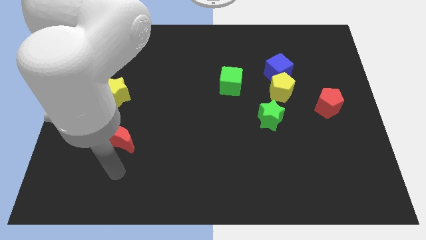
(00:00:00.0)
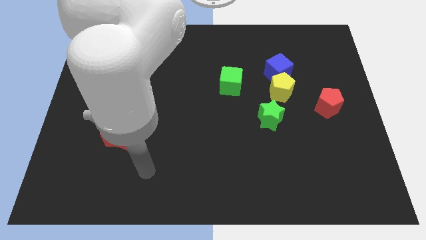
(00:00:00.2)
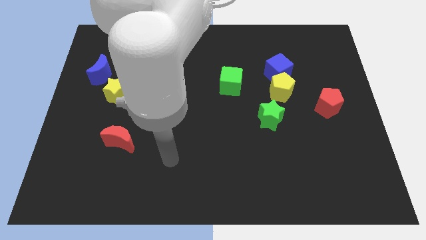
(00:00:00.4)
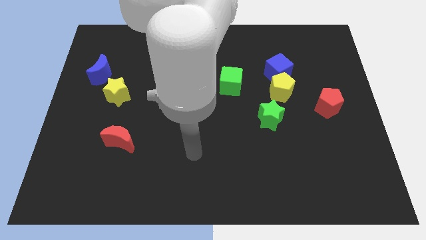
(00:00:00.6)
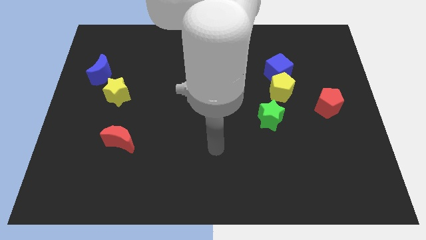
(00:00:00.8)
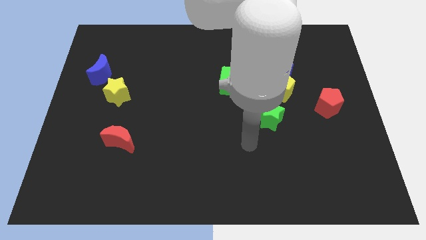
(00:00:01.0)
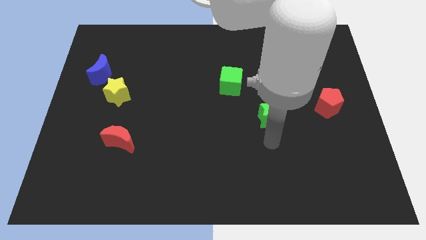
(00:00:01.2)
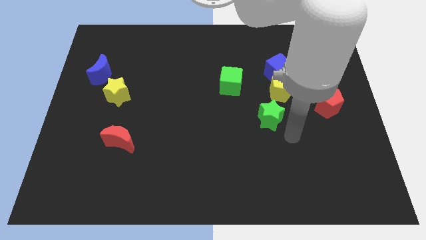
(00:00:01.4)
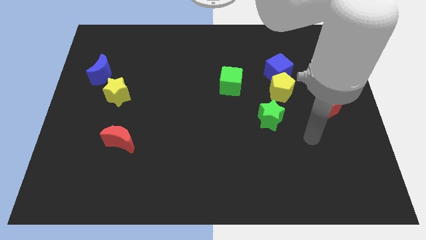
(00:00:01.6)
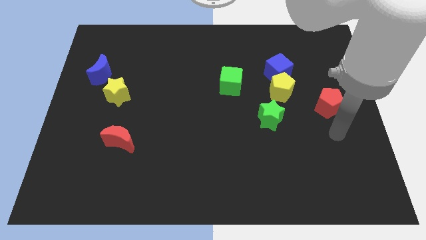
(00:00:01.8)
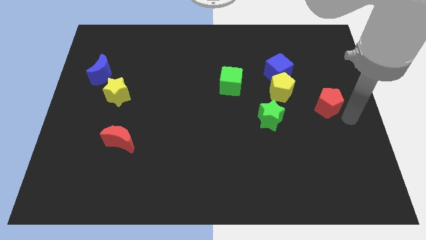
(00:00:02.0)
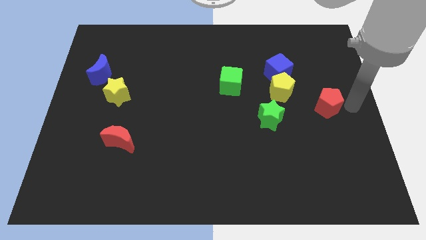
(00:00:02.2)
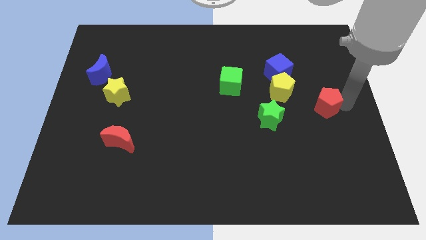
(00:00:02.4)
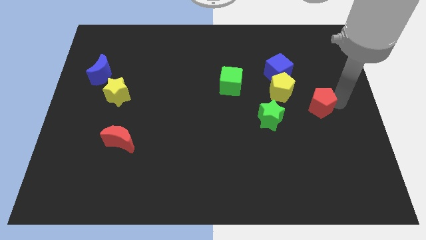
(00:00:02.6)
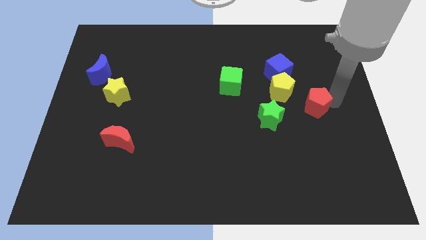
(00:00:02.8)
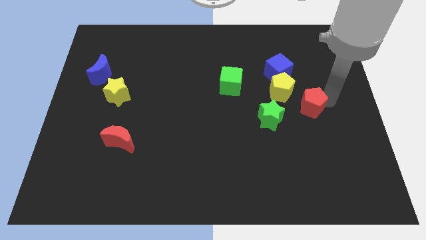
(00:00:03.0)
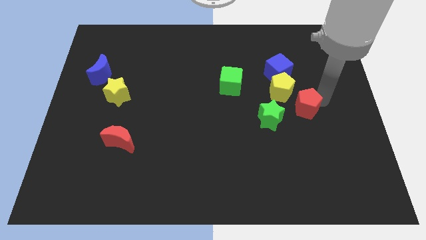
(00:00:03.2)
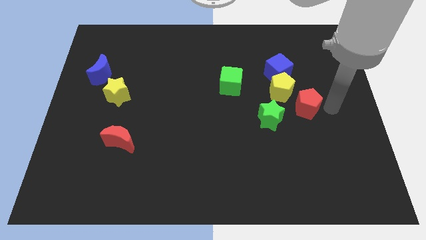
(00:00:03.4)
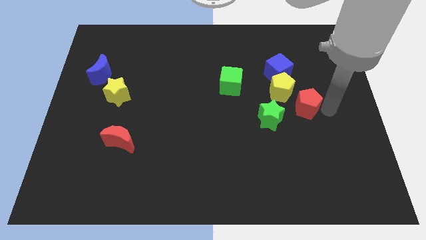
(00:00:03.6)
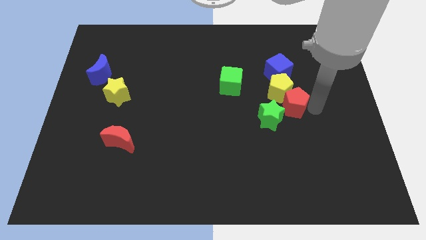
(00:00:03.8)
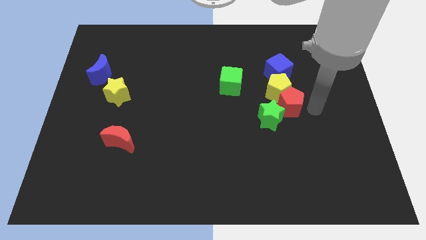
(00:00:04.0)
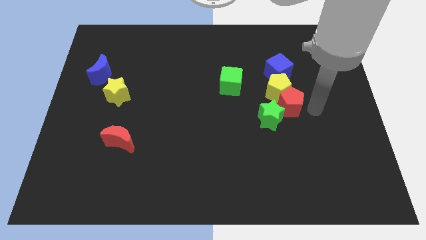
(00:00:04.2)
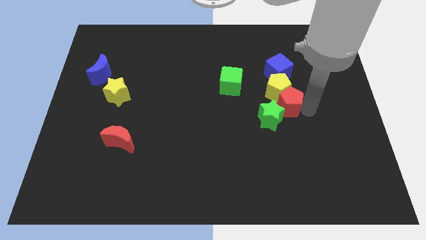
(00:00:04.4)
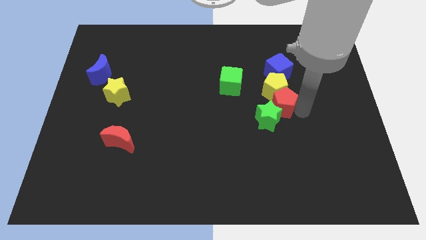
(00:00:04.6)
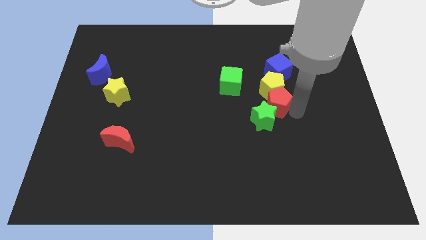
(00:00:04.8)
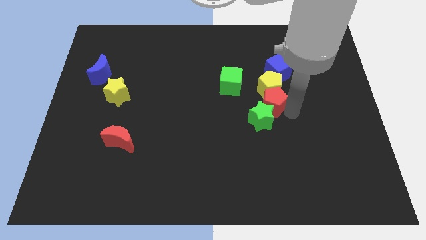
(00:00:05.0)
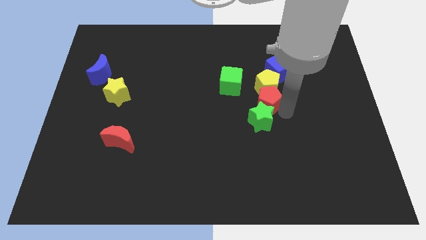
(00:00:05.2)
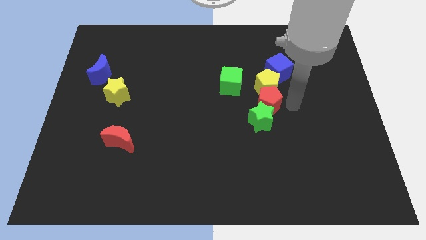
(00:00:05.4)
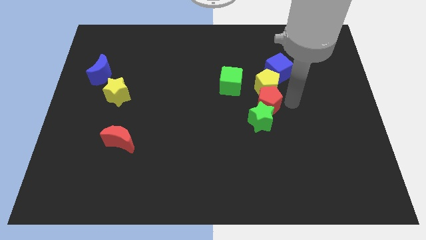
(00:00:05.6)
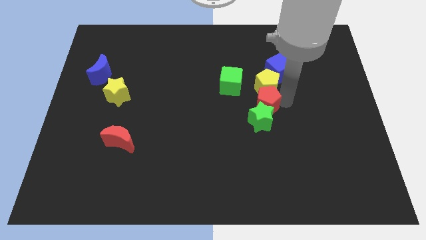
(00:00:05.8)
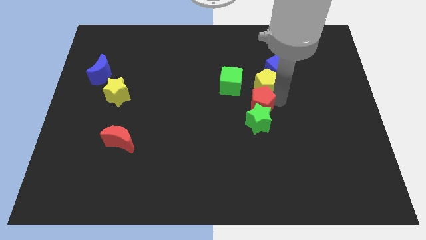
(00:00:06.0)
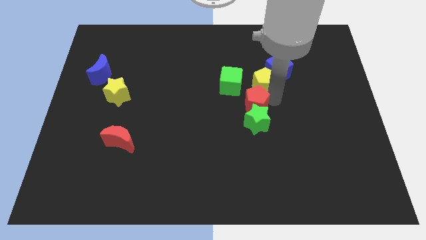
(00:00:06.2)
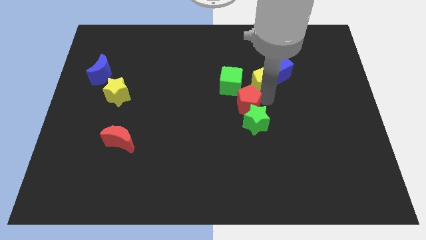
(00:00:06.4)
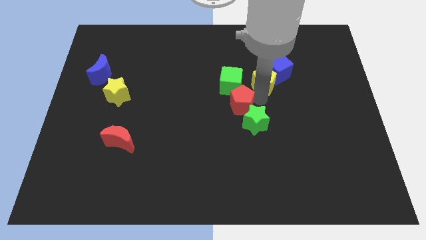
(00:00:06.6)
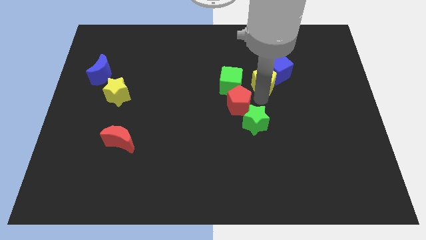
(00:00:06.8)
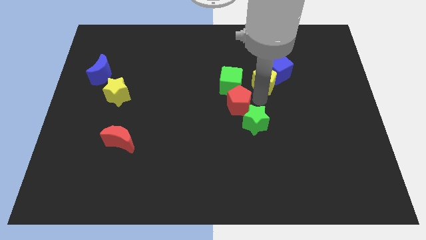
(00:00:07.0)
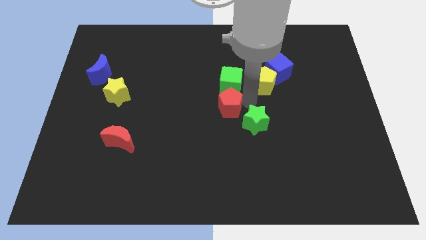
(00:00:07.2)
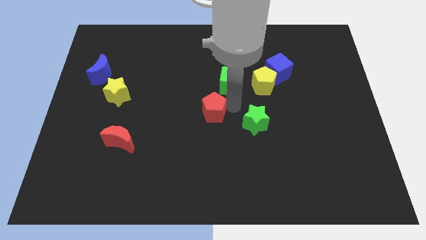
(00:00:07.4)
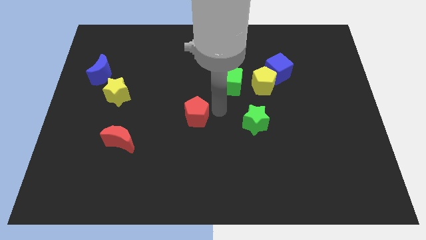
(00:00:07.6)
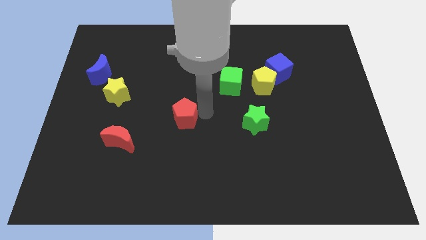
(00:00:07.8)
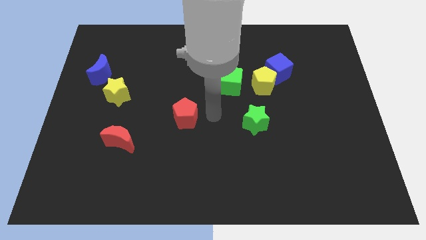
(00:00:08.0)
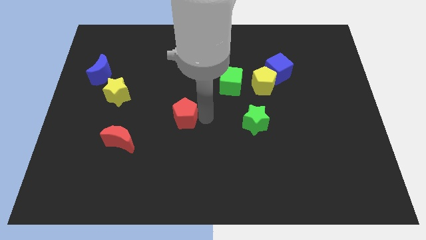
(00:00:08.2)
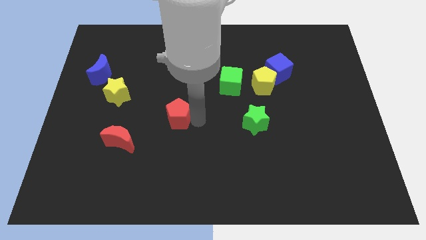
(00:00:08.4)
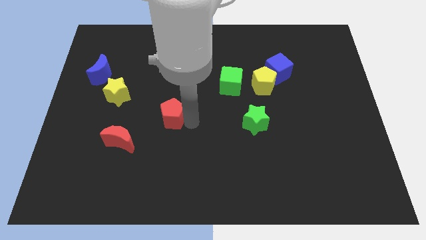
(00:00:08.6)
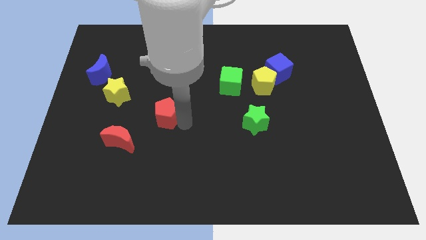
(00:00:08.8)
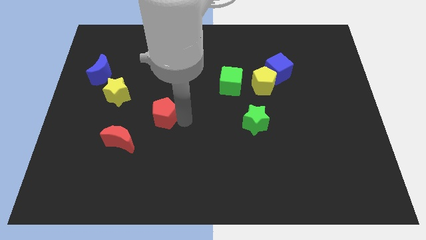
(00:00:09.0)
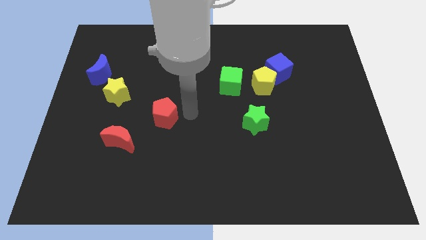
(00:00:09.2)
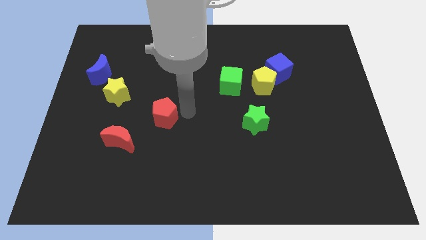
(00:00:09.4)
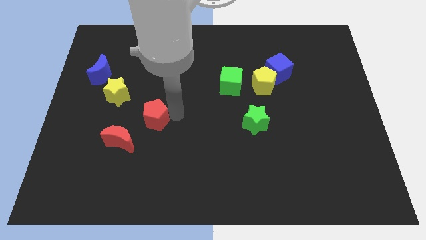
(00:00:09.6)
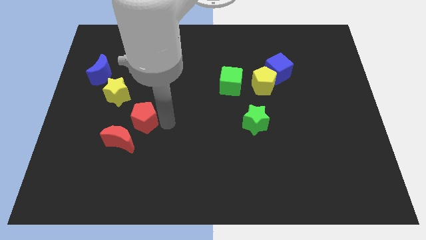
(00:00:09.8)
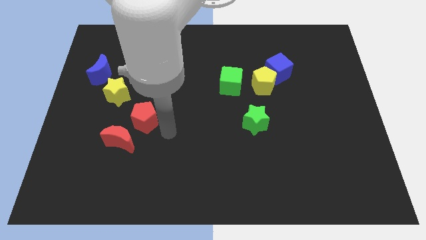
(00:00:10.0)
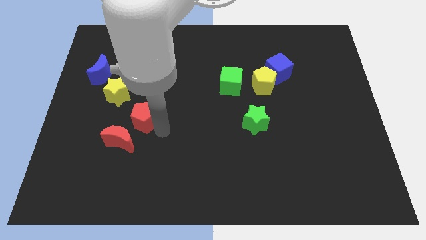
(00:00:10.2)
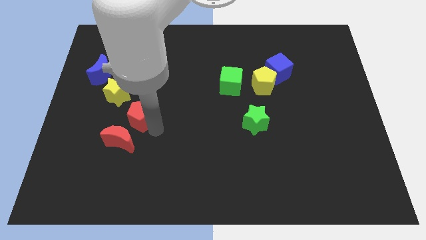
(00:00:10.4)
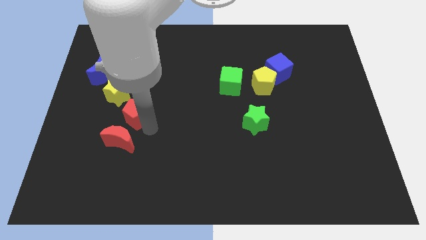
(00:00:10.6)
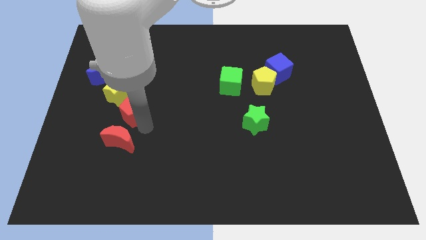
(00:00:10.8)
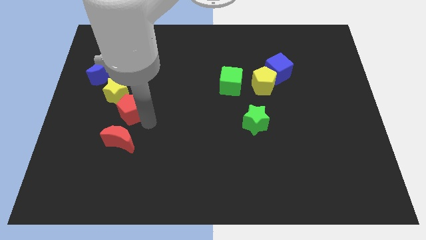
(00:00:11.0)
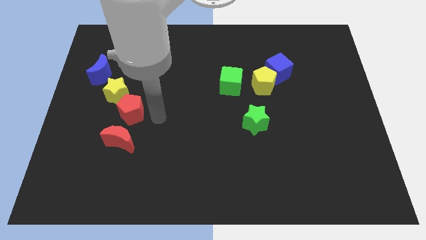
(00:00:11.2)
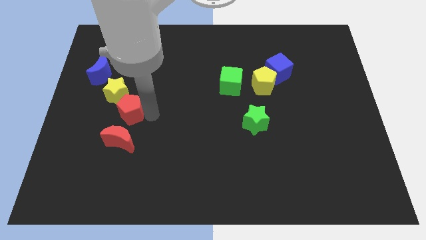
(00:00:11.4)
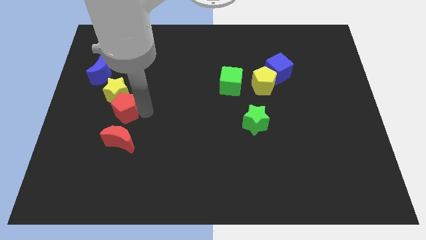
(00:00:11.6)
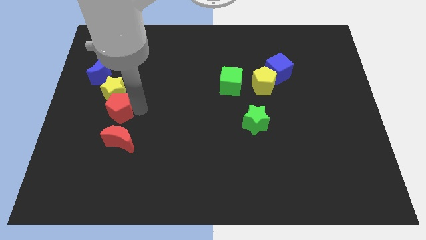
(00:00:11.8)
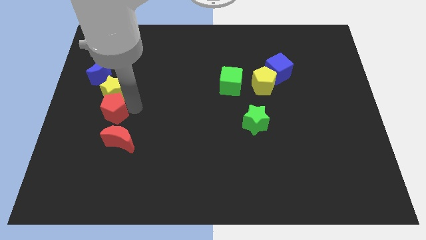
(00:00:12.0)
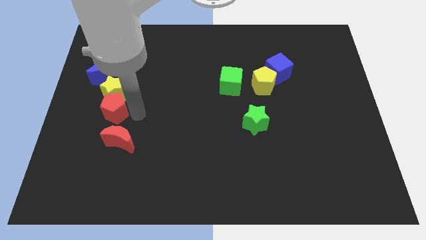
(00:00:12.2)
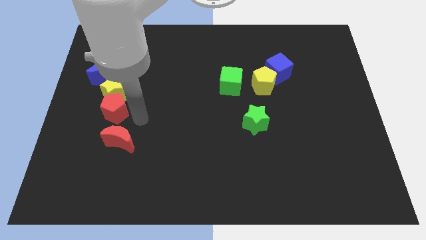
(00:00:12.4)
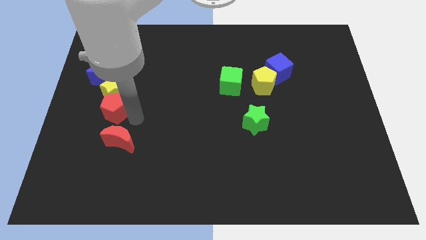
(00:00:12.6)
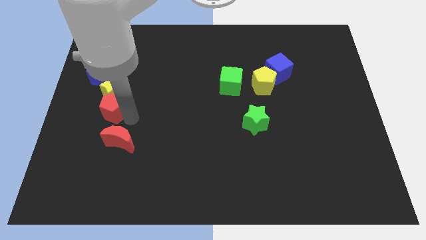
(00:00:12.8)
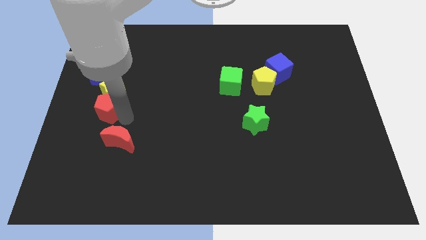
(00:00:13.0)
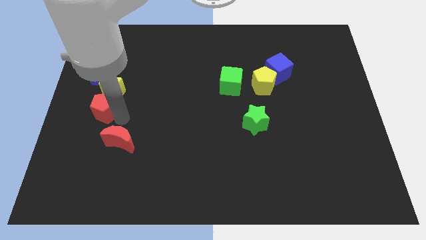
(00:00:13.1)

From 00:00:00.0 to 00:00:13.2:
move the red pentagon to the center left
